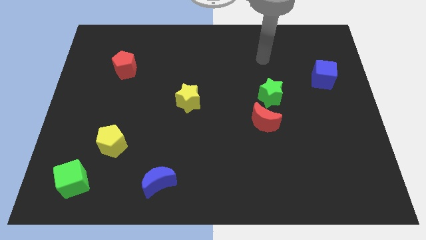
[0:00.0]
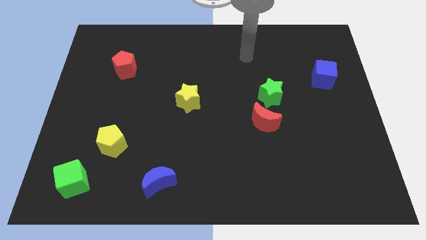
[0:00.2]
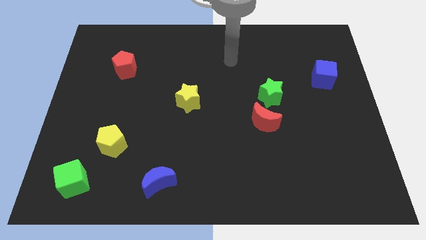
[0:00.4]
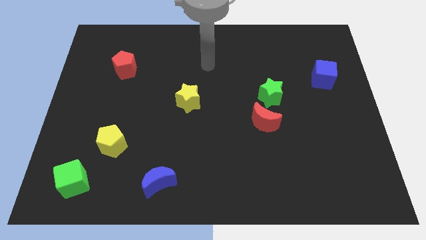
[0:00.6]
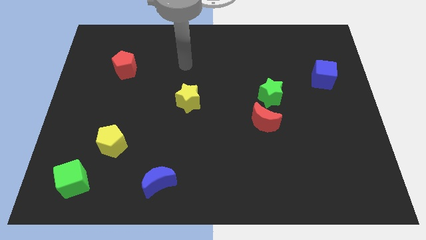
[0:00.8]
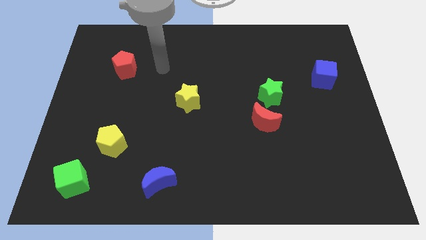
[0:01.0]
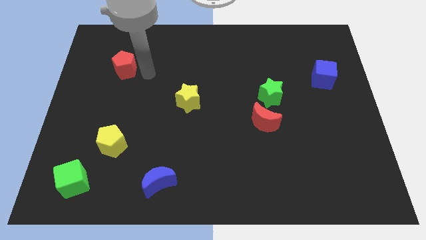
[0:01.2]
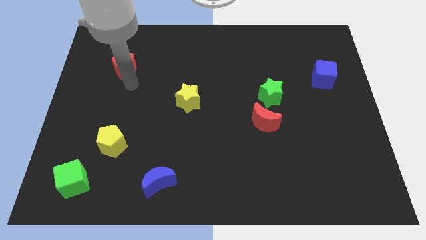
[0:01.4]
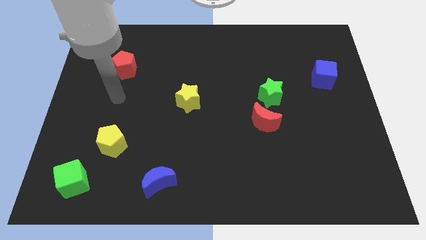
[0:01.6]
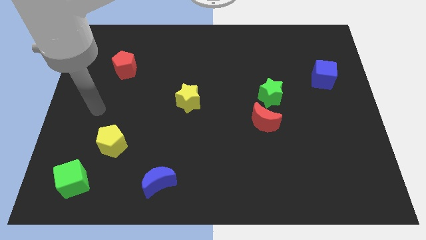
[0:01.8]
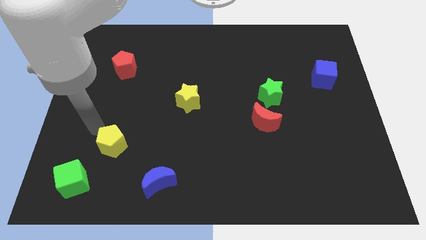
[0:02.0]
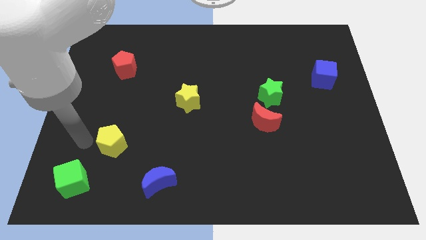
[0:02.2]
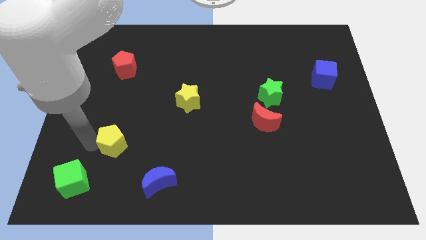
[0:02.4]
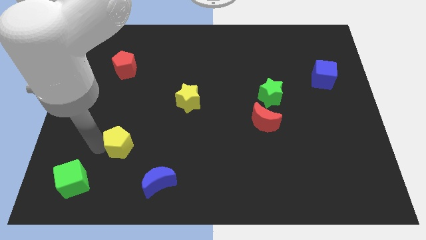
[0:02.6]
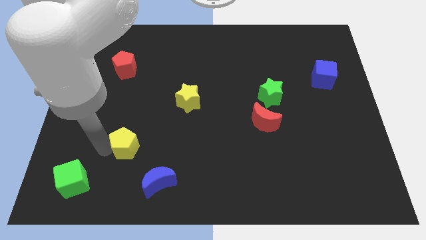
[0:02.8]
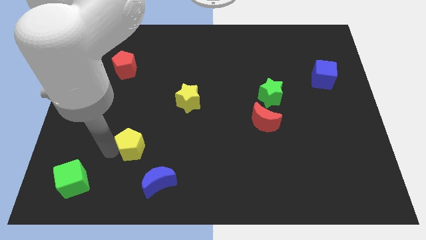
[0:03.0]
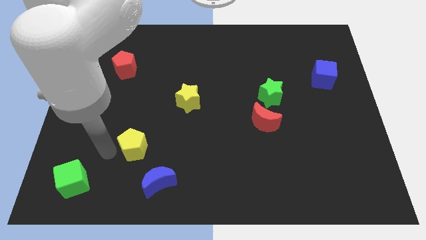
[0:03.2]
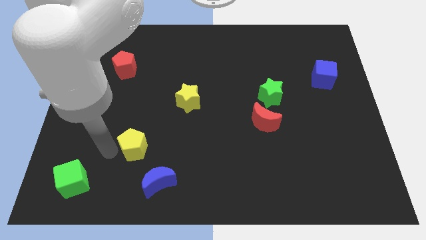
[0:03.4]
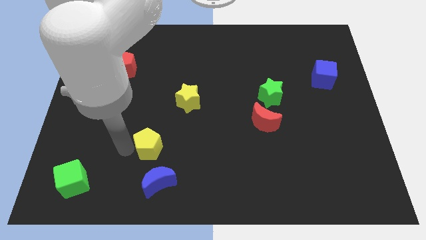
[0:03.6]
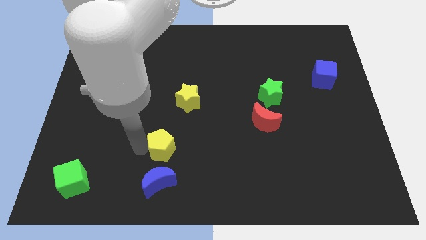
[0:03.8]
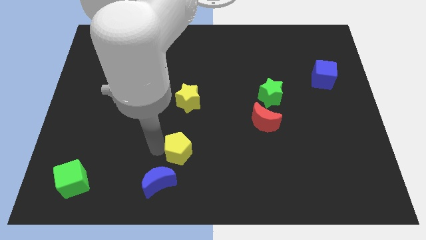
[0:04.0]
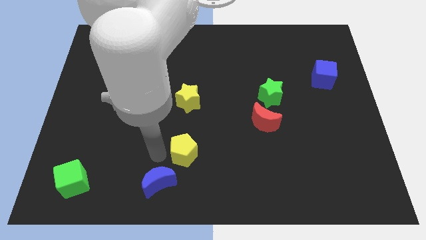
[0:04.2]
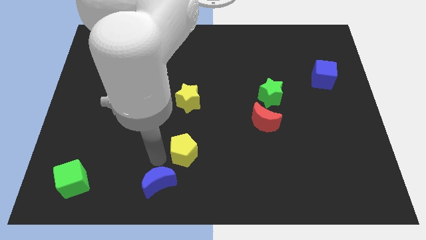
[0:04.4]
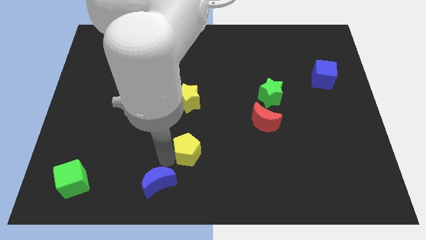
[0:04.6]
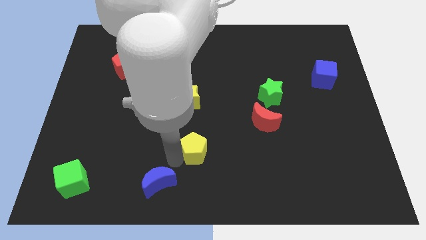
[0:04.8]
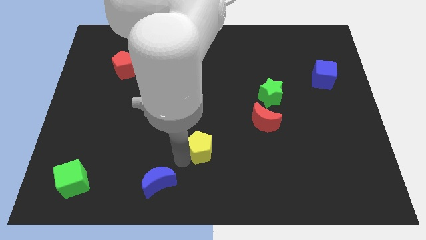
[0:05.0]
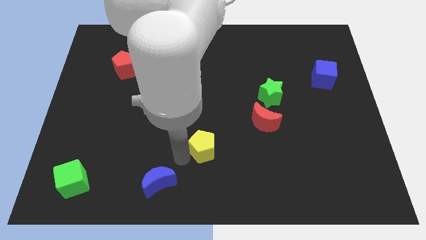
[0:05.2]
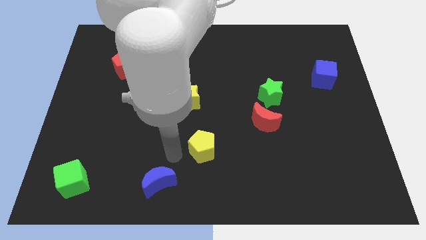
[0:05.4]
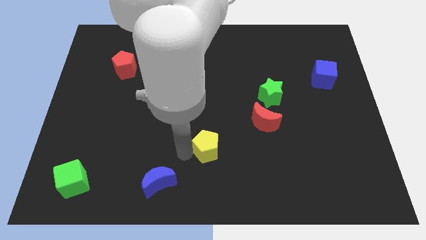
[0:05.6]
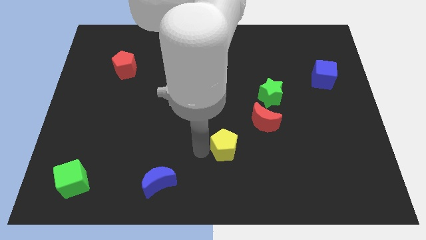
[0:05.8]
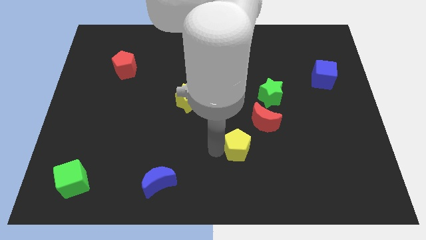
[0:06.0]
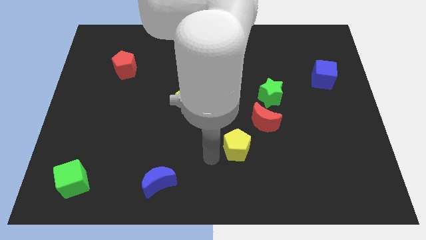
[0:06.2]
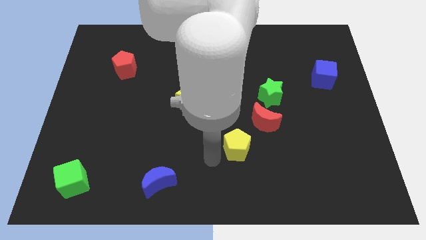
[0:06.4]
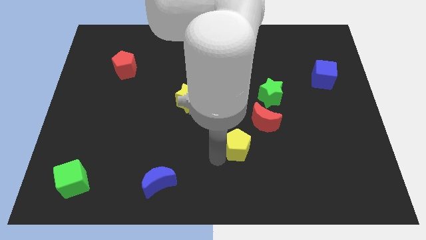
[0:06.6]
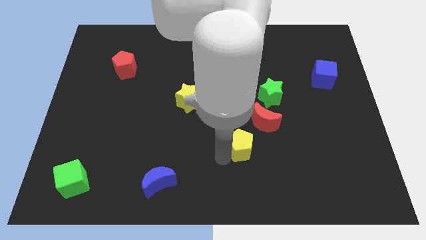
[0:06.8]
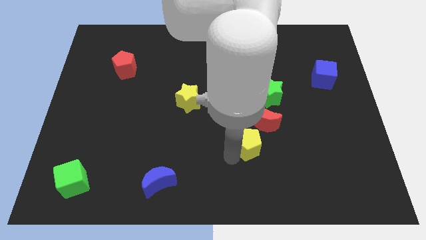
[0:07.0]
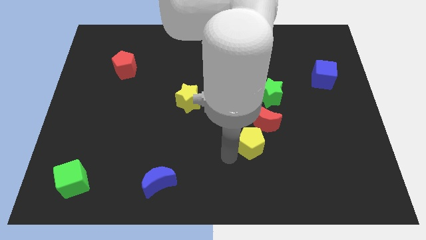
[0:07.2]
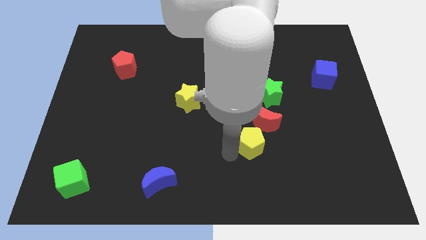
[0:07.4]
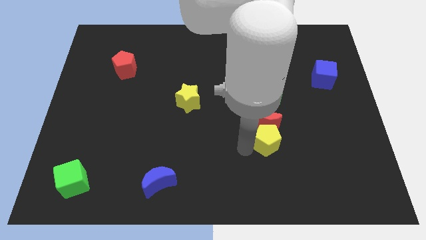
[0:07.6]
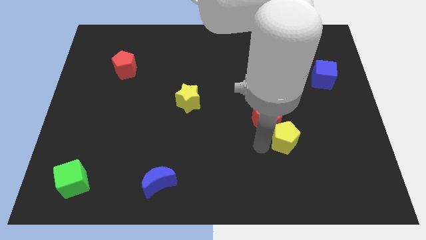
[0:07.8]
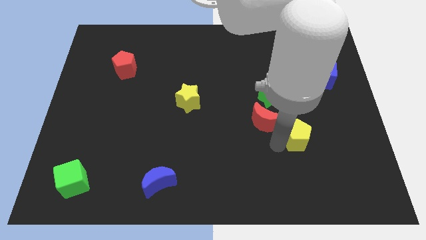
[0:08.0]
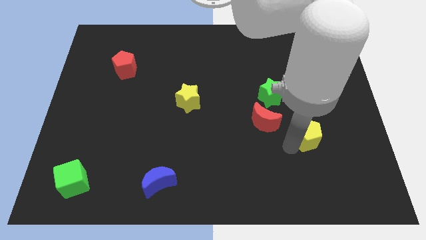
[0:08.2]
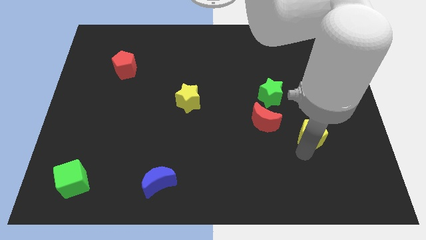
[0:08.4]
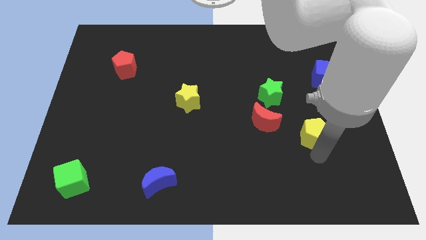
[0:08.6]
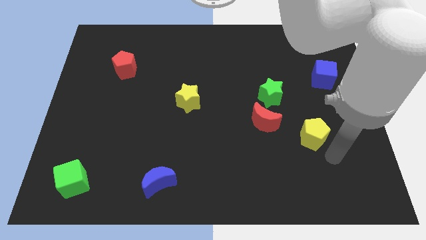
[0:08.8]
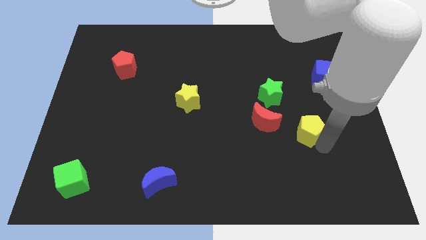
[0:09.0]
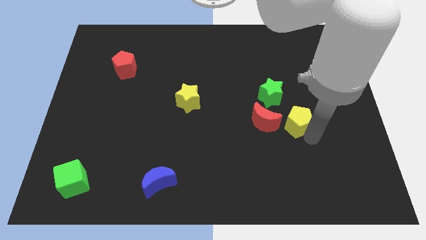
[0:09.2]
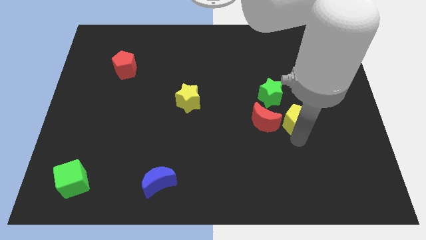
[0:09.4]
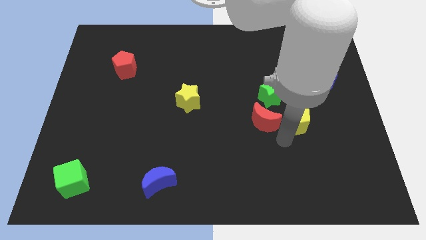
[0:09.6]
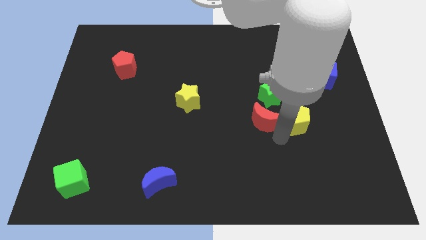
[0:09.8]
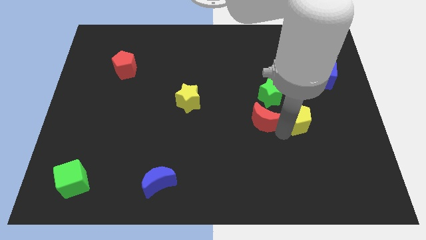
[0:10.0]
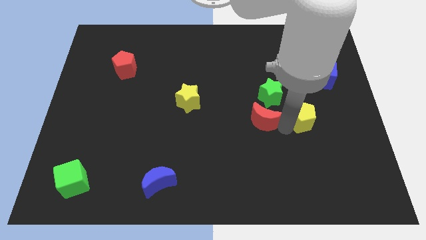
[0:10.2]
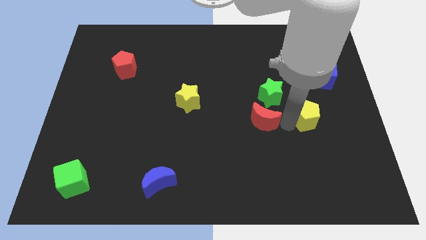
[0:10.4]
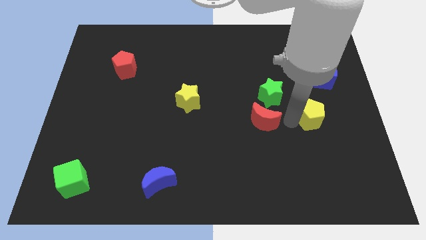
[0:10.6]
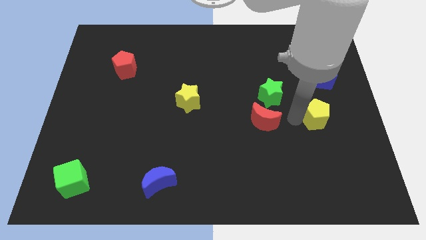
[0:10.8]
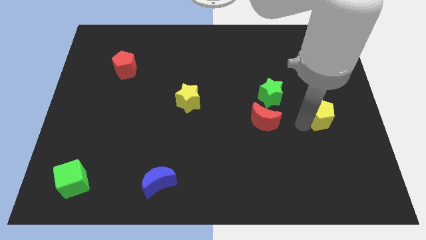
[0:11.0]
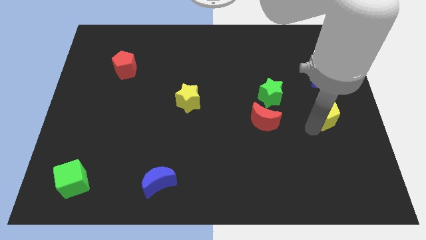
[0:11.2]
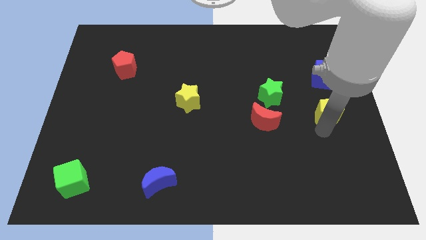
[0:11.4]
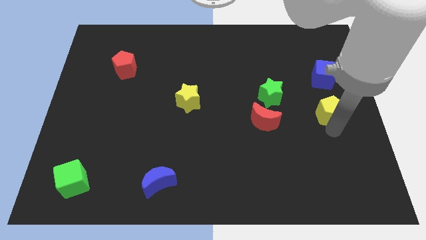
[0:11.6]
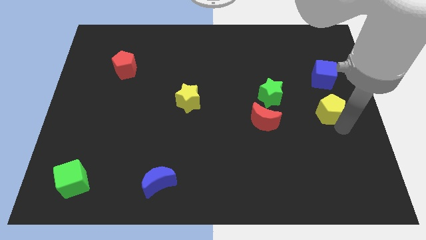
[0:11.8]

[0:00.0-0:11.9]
move the yellow pentagon to the right of the green star

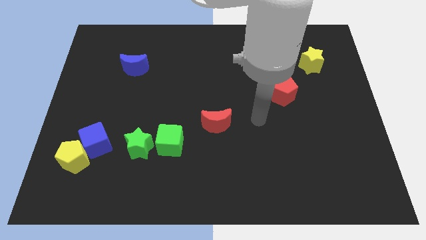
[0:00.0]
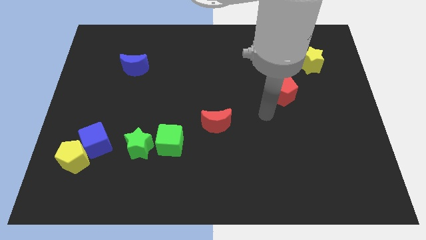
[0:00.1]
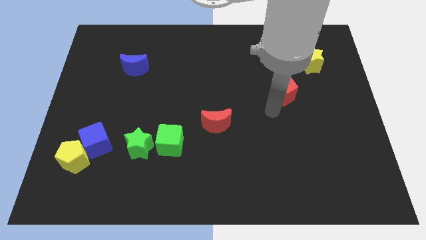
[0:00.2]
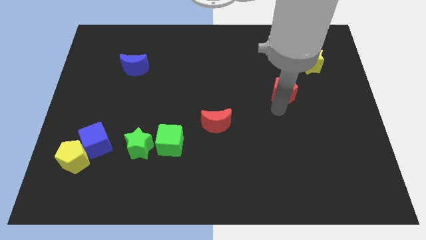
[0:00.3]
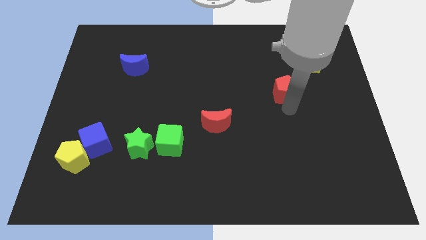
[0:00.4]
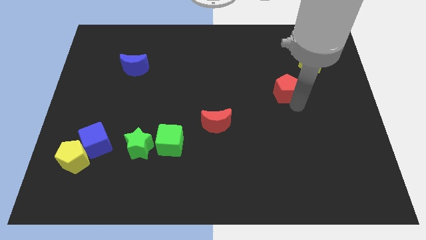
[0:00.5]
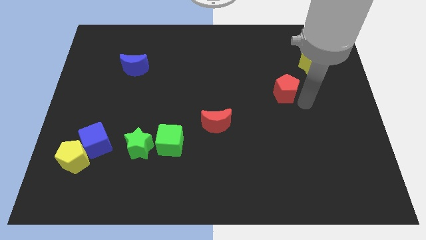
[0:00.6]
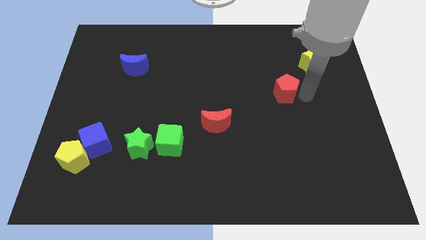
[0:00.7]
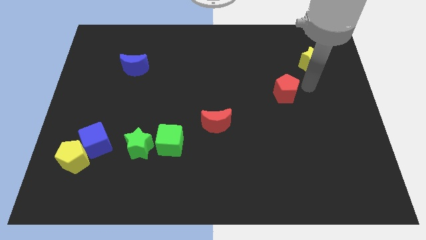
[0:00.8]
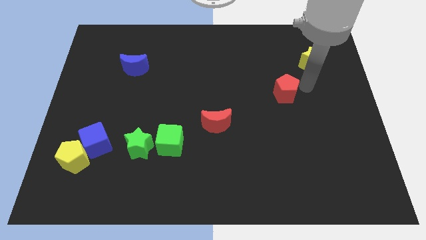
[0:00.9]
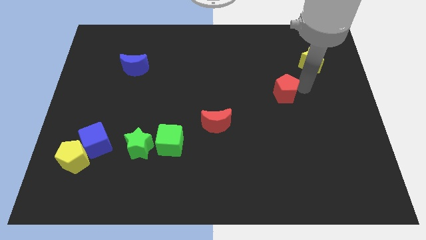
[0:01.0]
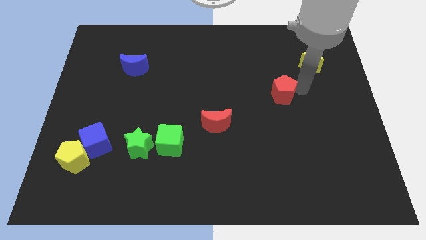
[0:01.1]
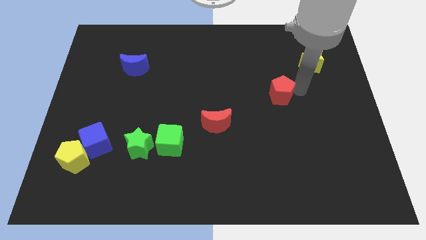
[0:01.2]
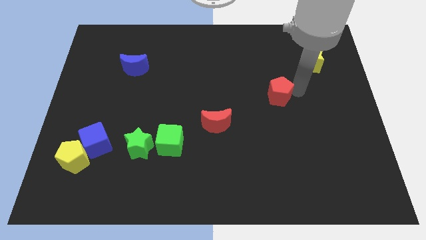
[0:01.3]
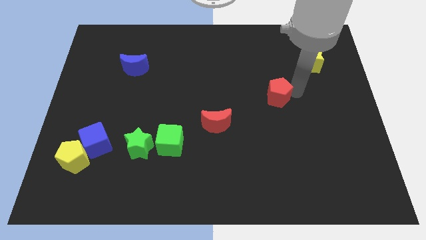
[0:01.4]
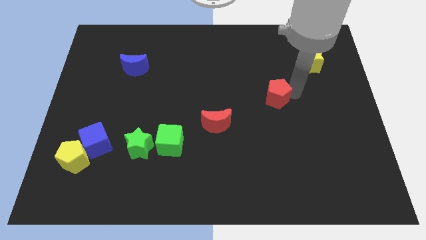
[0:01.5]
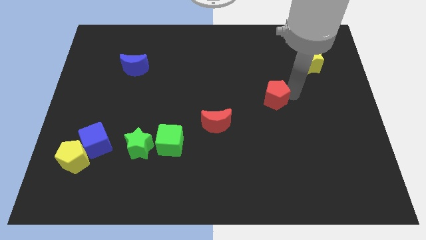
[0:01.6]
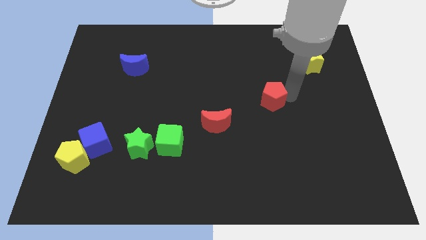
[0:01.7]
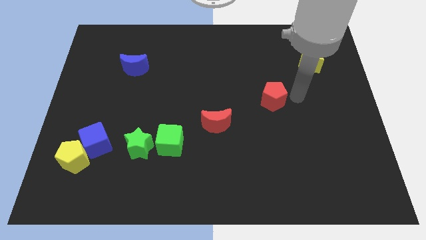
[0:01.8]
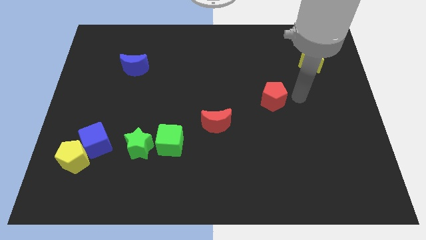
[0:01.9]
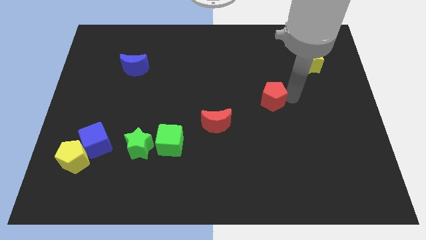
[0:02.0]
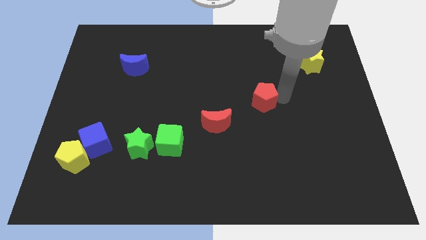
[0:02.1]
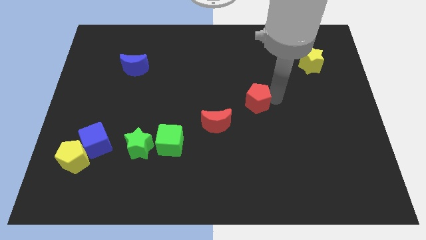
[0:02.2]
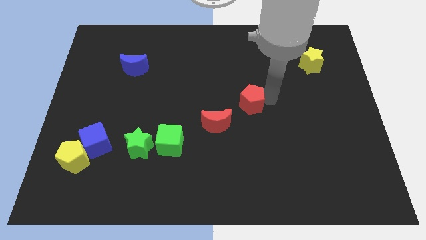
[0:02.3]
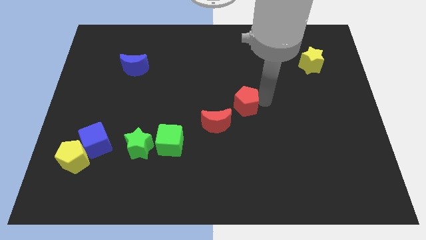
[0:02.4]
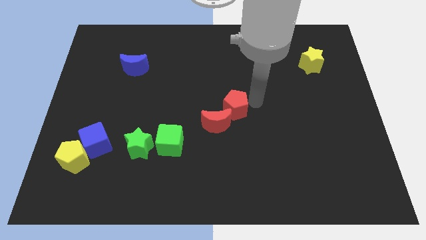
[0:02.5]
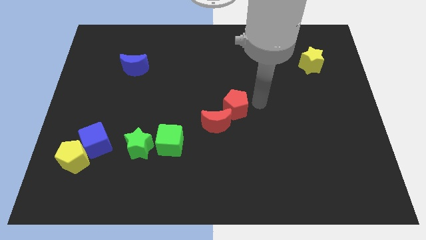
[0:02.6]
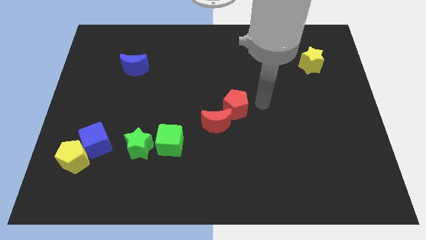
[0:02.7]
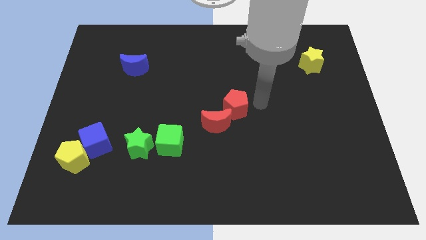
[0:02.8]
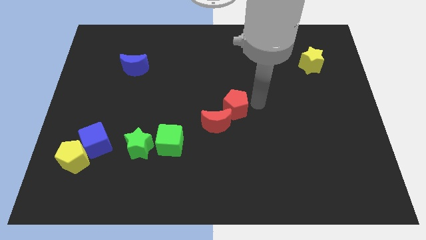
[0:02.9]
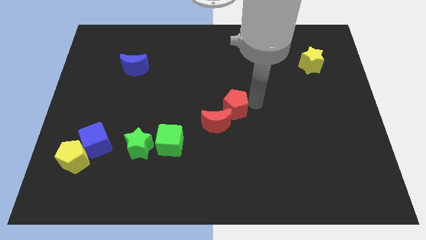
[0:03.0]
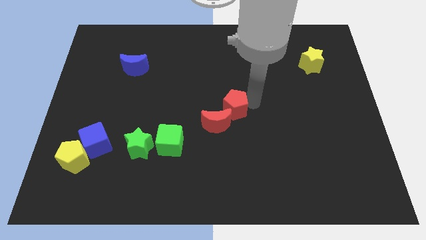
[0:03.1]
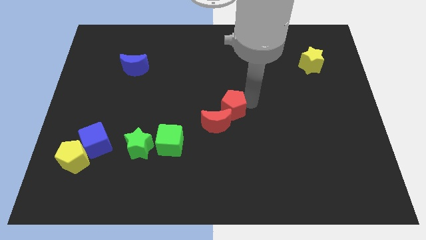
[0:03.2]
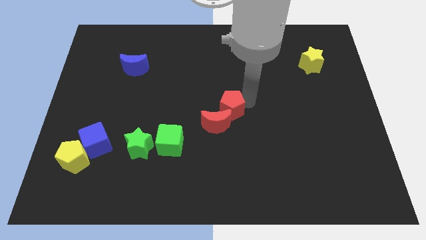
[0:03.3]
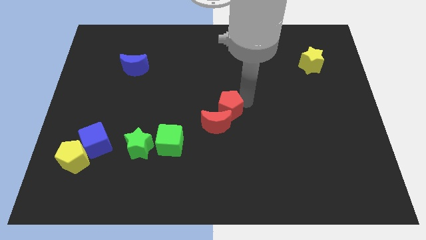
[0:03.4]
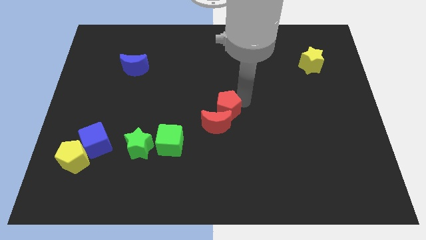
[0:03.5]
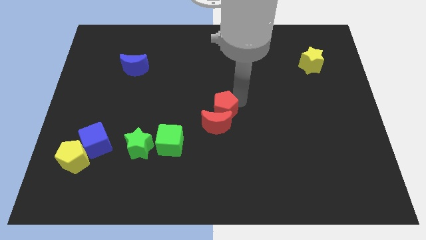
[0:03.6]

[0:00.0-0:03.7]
slide the red pentagon to the top left side of the red moon
